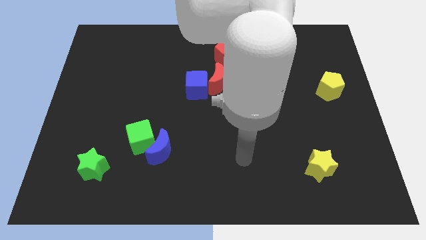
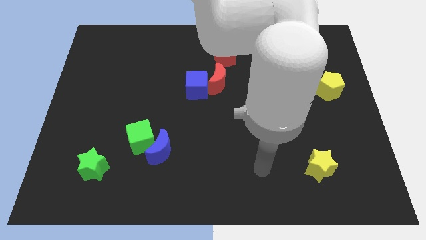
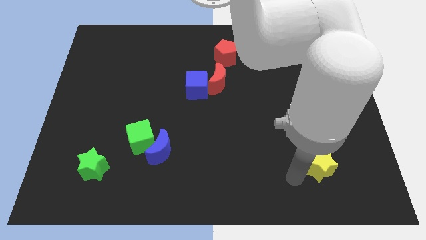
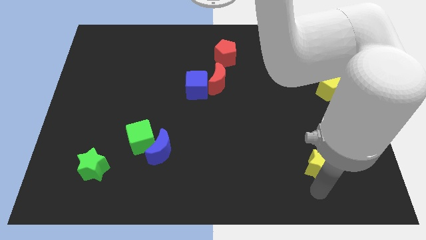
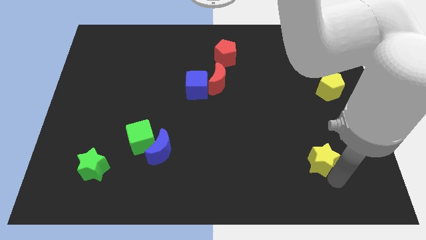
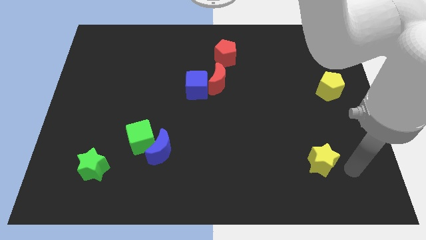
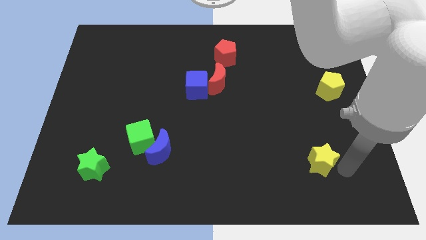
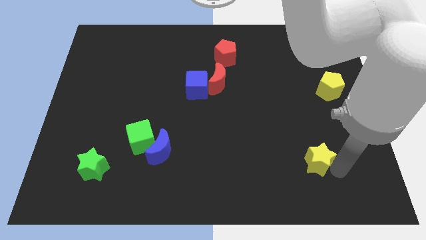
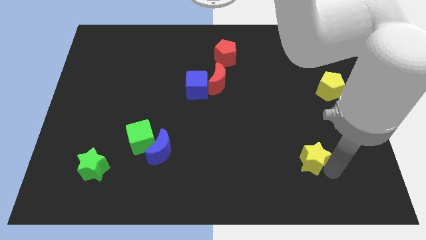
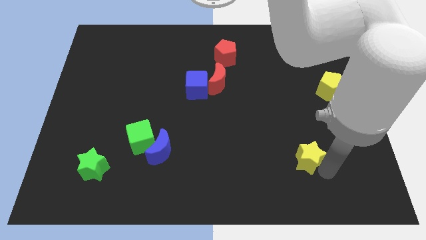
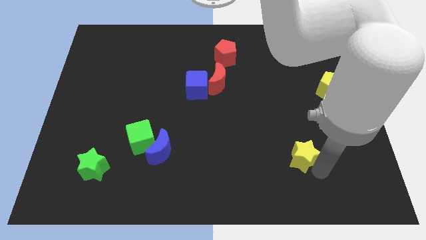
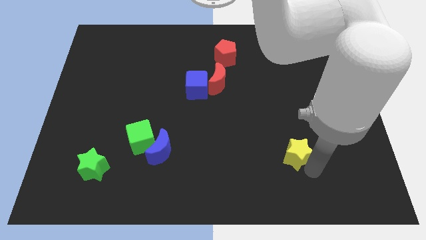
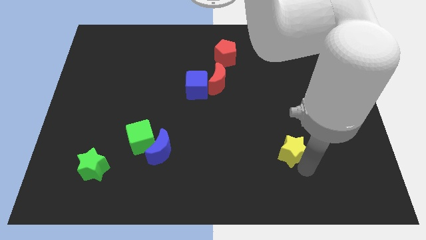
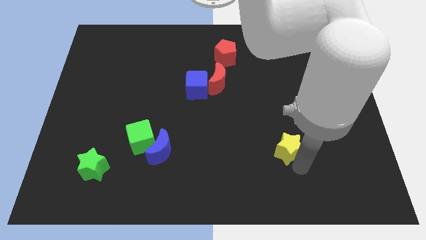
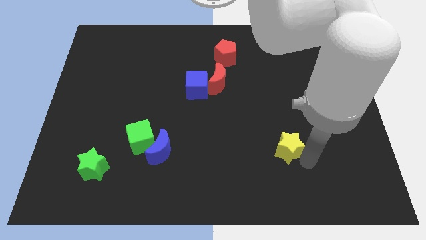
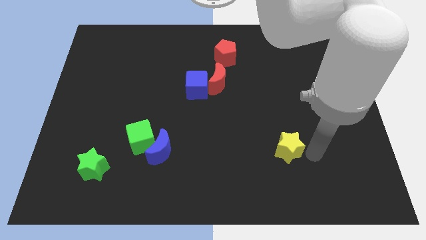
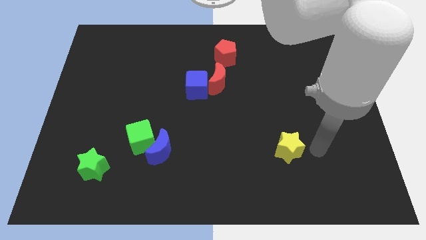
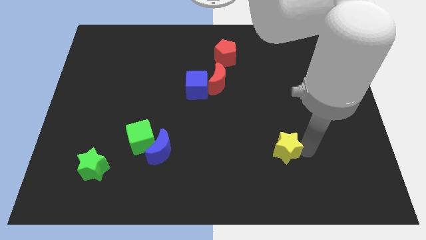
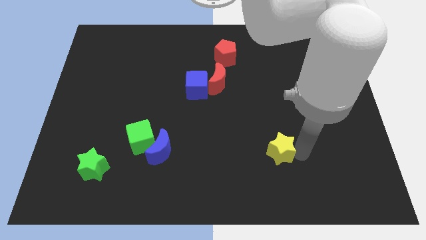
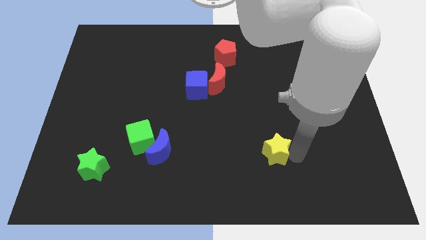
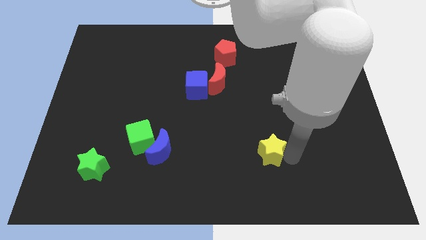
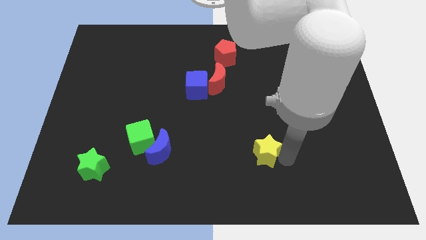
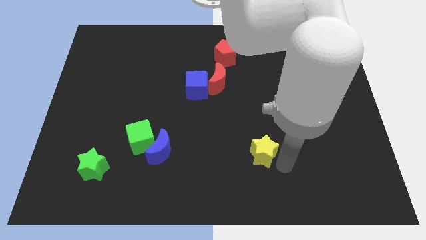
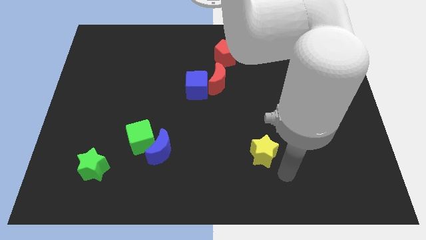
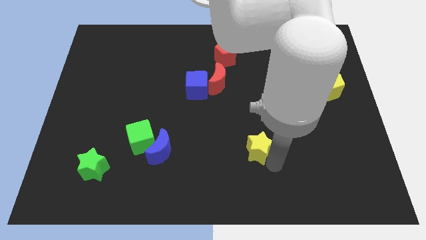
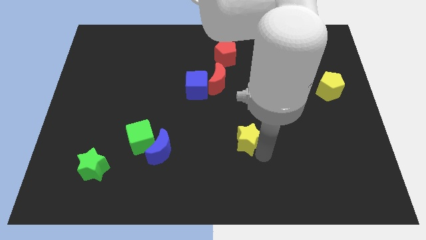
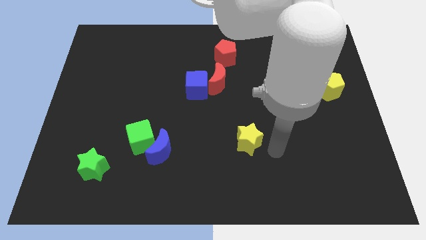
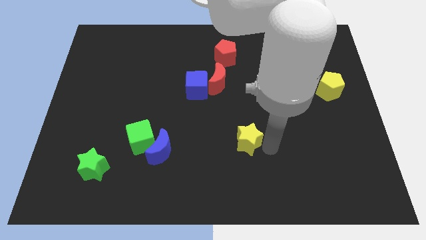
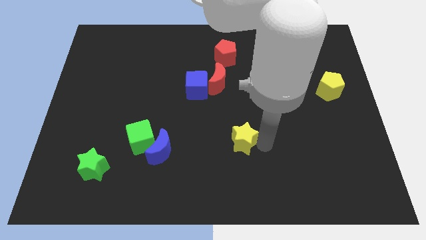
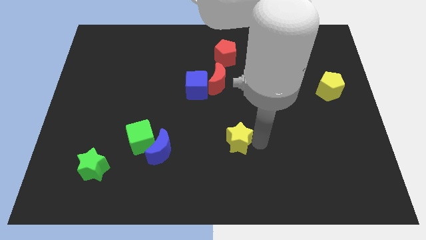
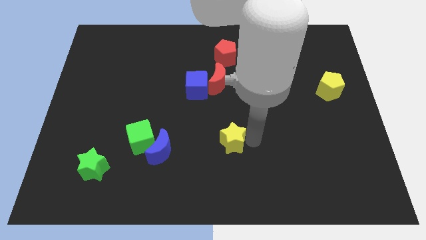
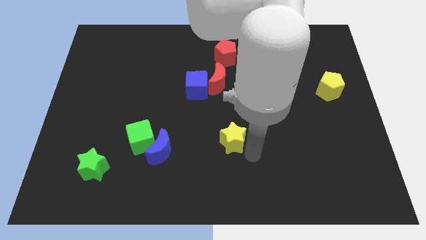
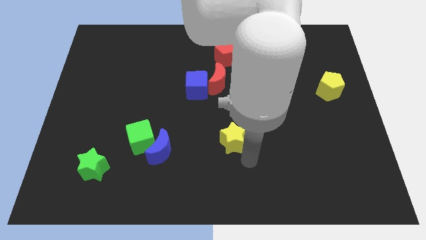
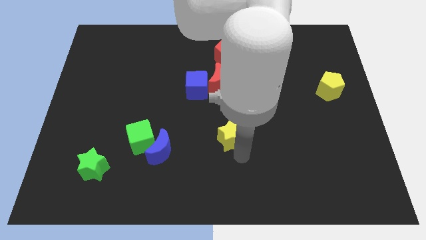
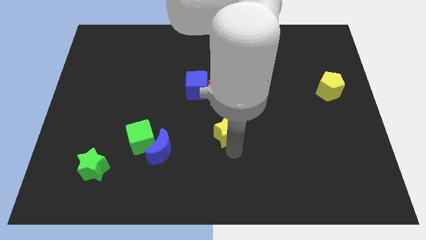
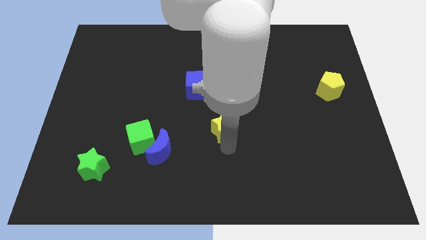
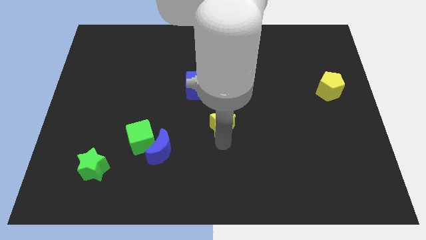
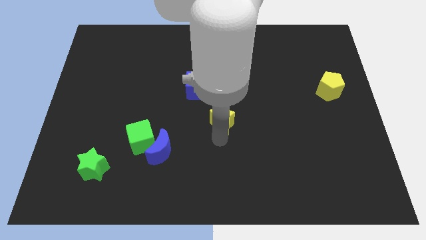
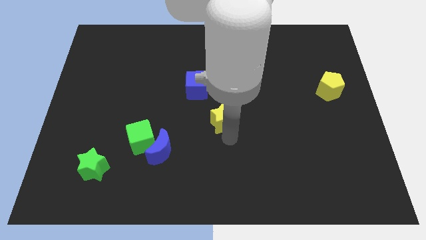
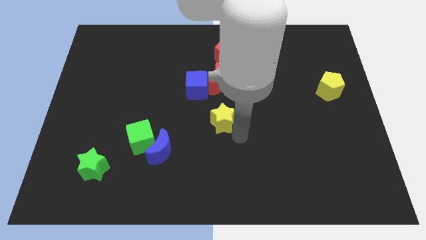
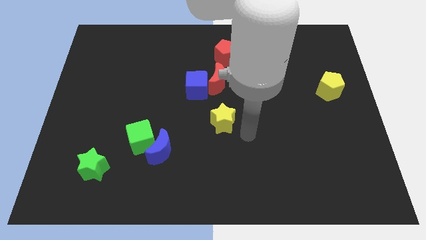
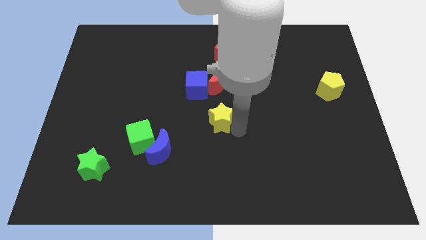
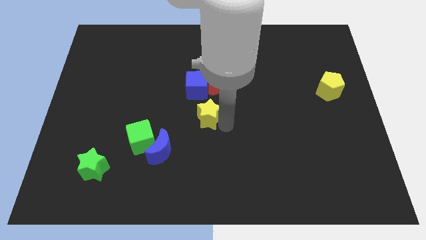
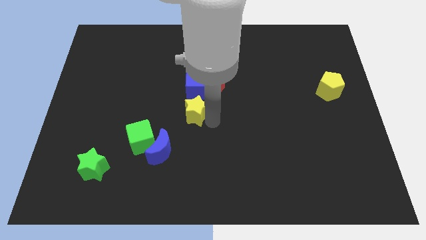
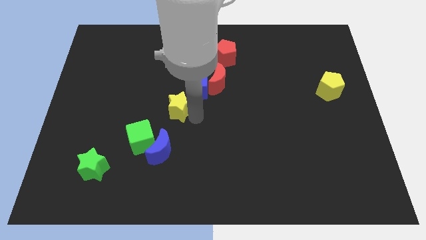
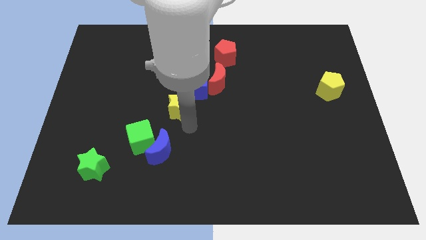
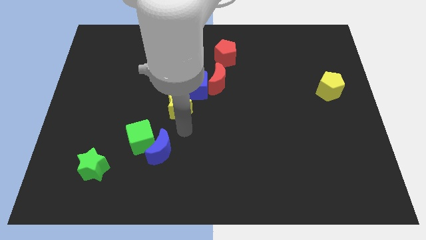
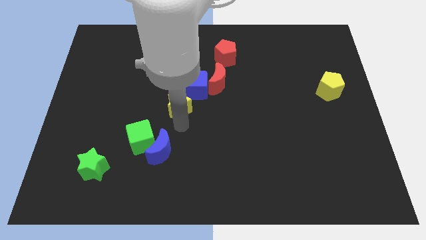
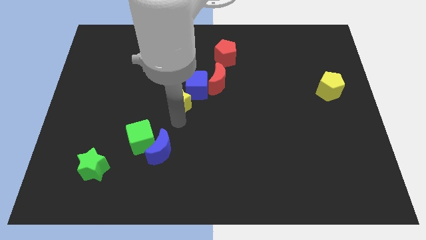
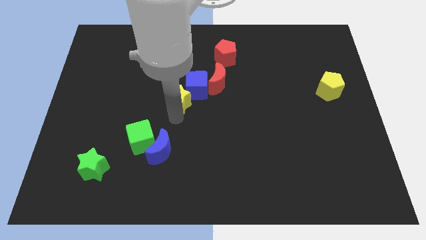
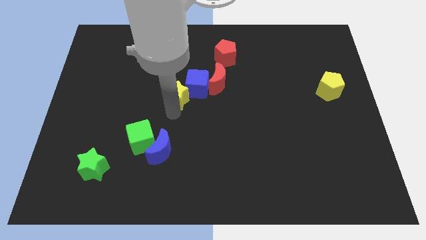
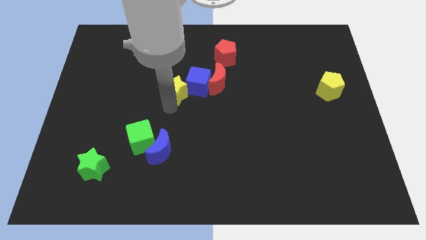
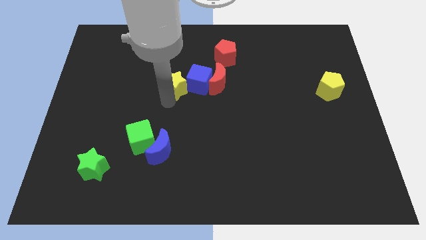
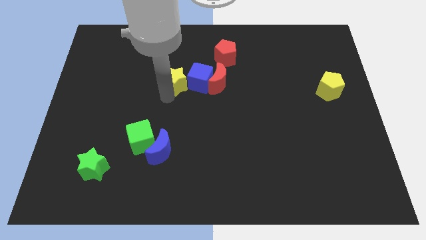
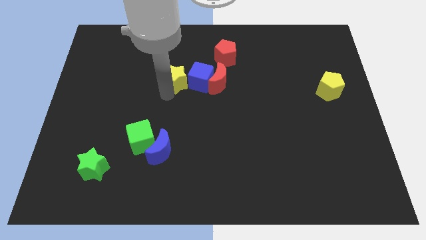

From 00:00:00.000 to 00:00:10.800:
put the yellow star to the top left side of the blue cube

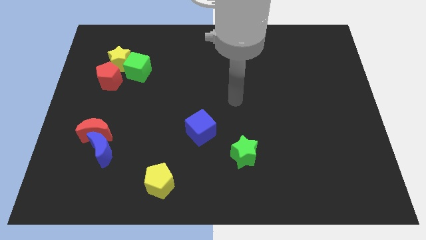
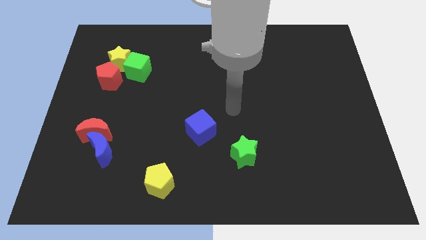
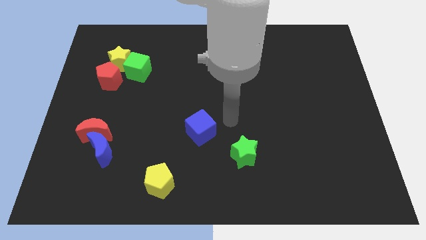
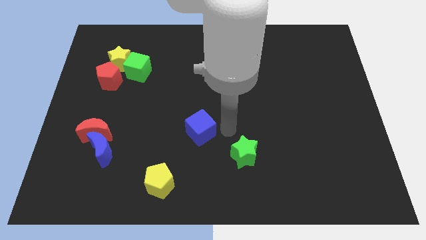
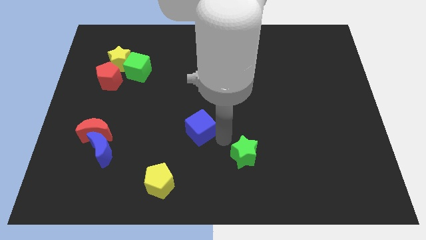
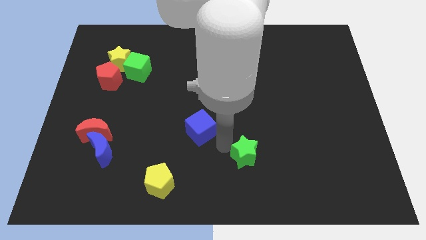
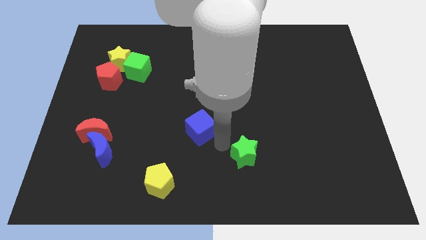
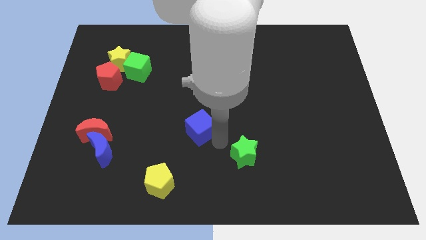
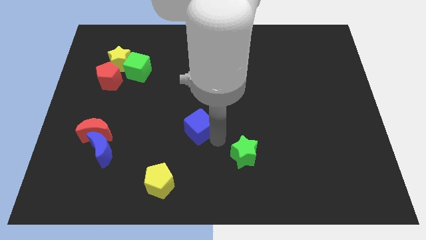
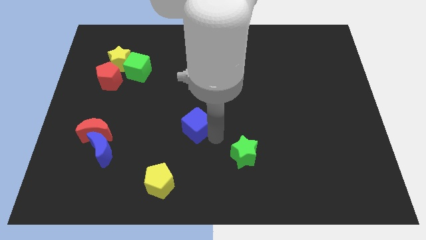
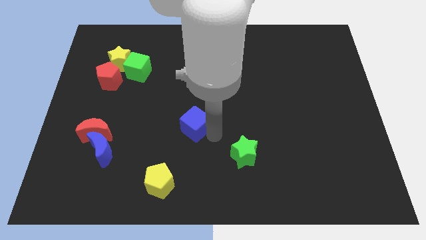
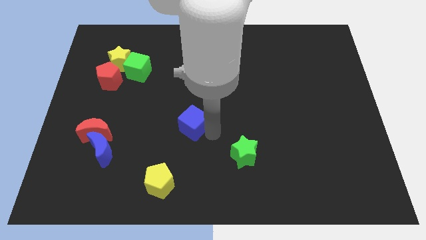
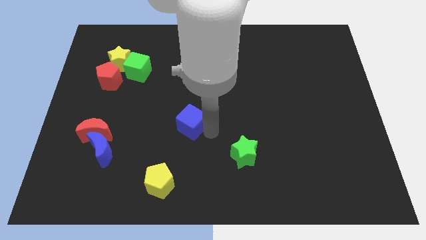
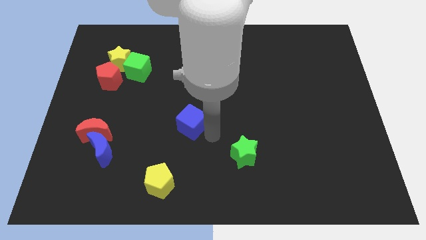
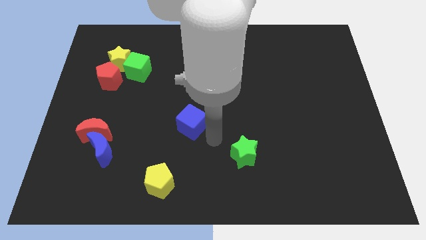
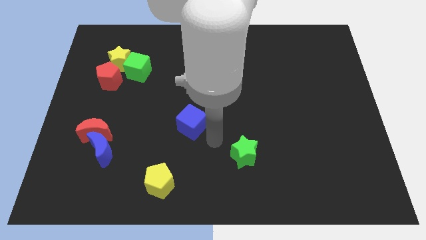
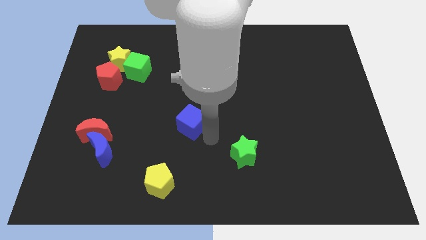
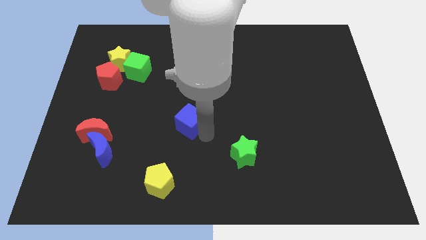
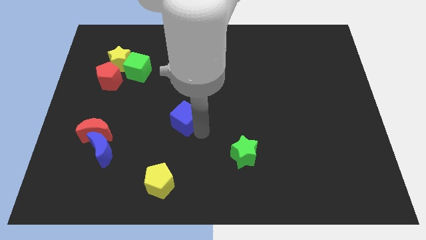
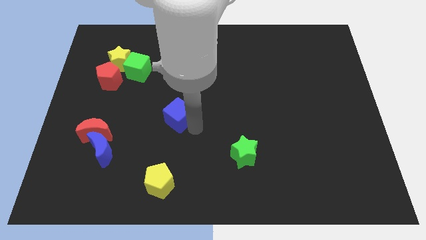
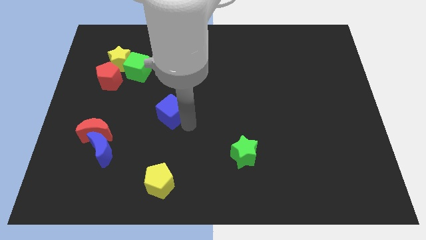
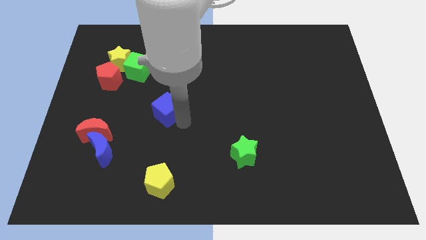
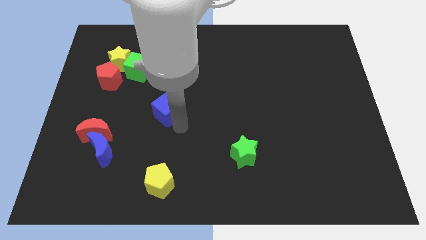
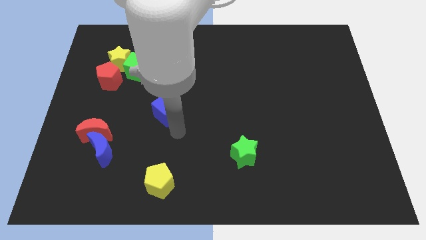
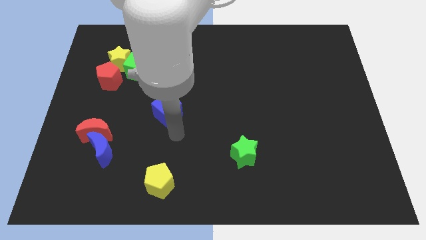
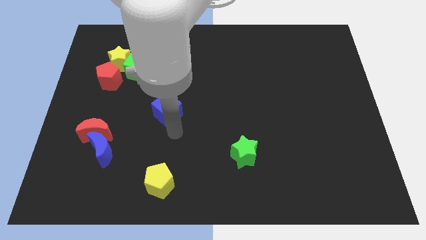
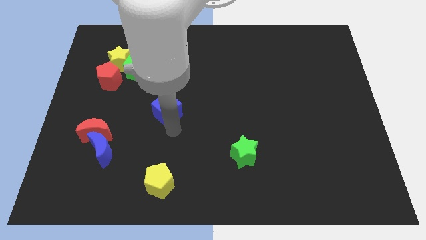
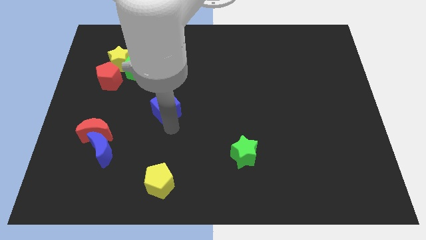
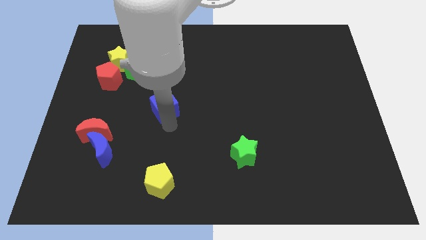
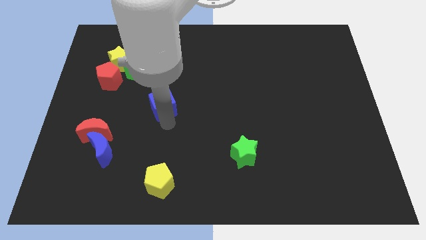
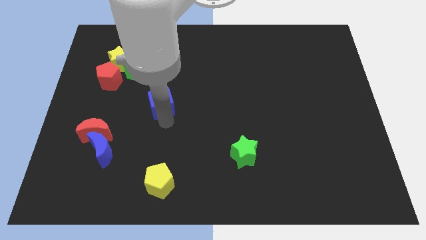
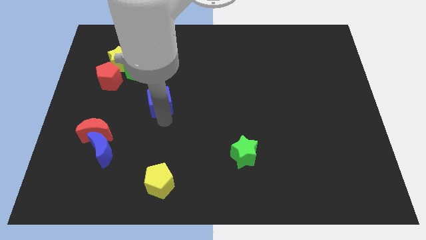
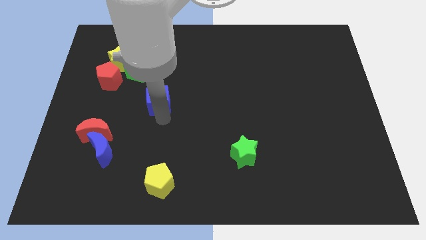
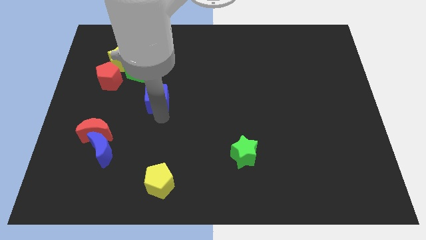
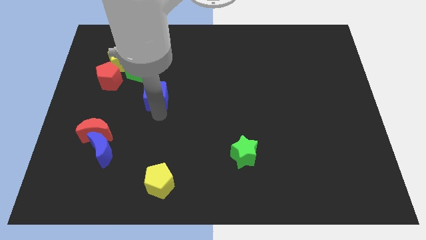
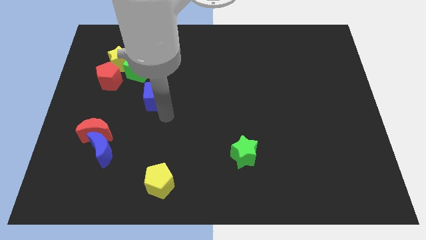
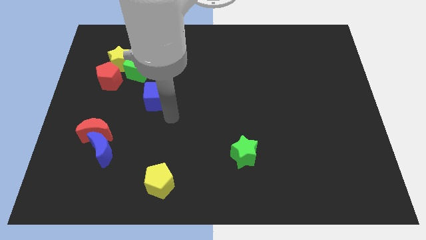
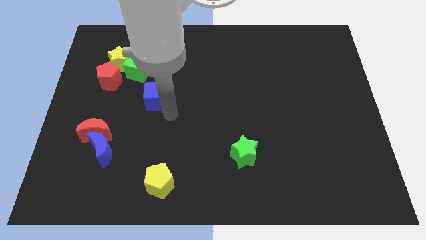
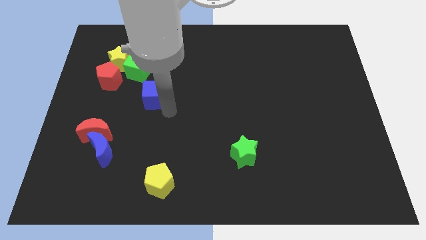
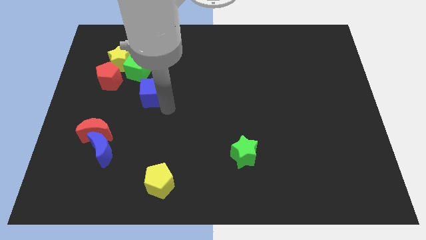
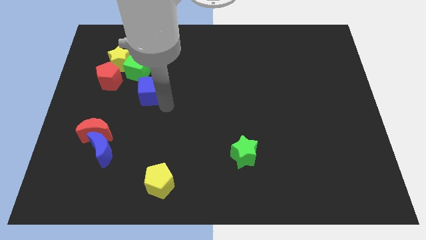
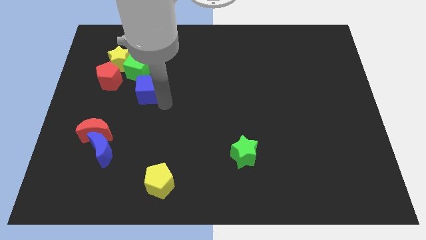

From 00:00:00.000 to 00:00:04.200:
push the blue cube diagonally down and to the right of the yellow star
